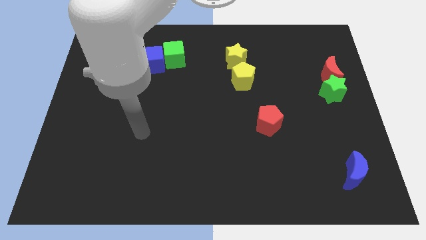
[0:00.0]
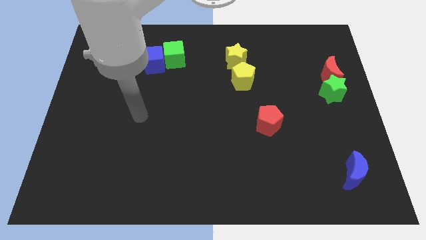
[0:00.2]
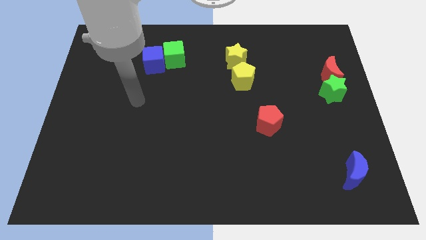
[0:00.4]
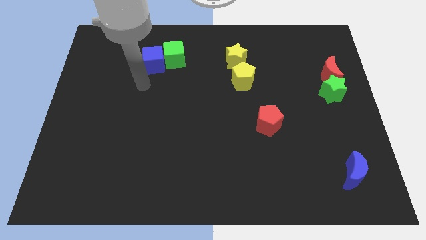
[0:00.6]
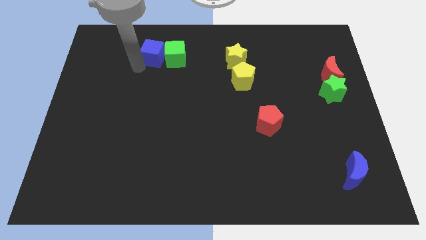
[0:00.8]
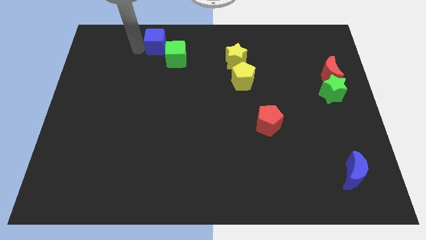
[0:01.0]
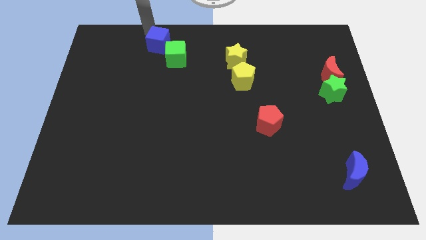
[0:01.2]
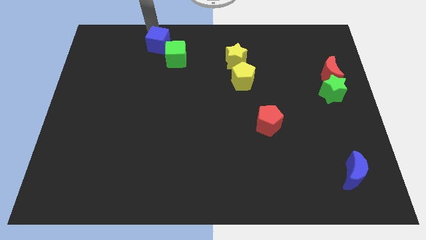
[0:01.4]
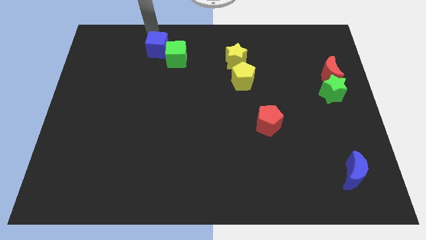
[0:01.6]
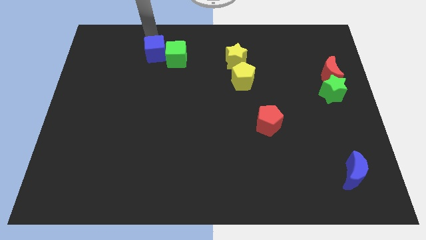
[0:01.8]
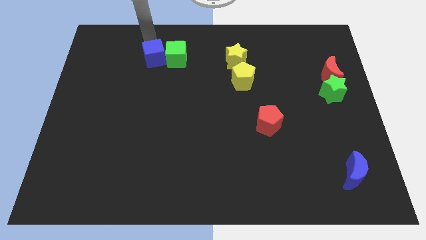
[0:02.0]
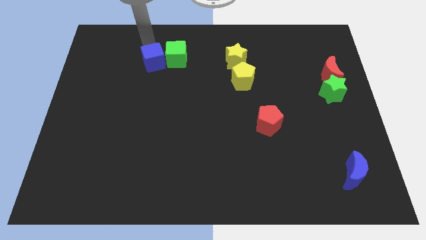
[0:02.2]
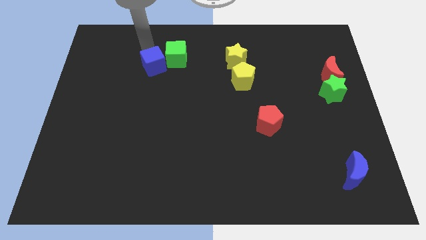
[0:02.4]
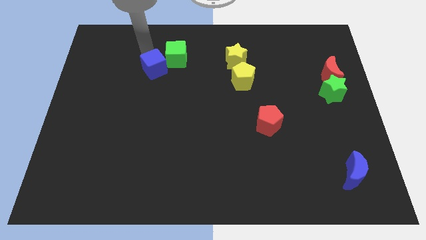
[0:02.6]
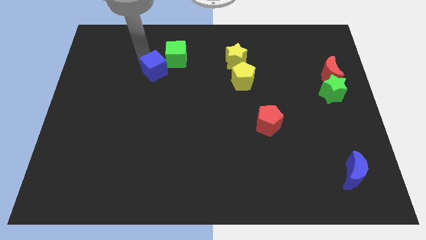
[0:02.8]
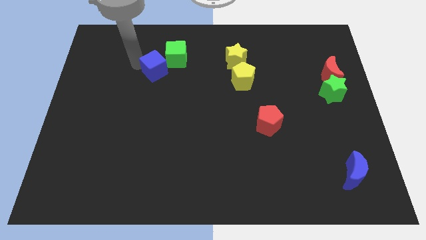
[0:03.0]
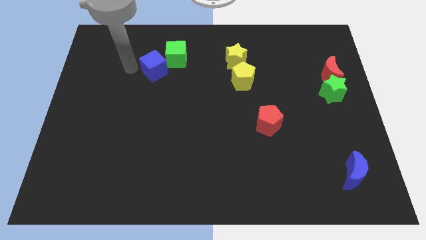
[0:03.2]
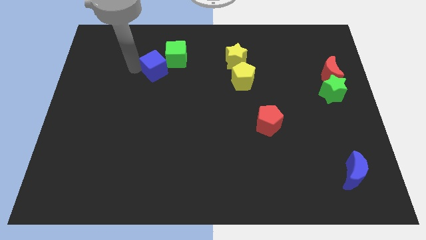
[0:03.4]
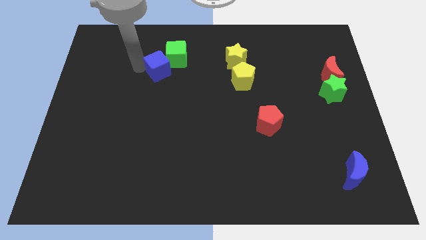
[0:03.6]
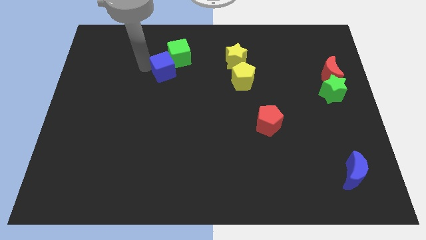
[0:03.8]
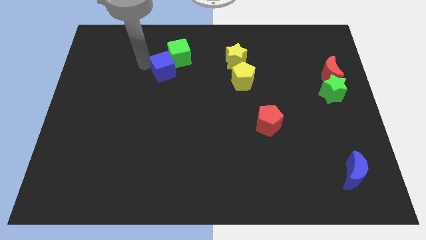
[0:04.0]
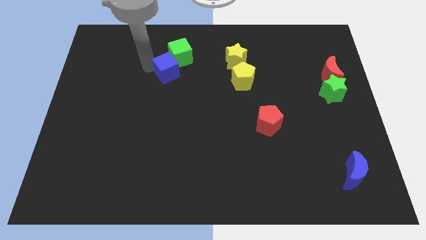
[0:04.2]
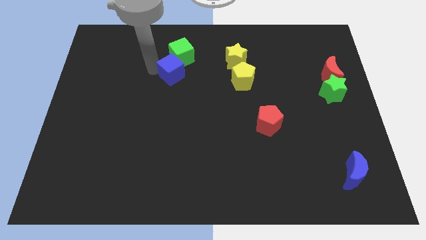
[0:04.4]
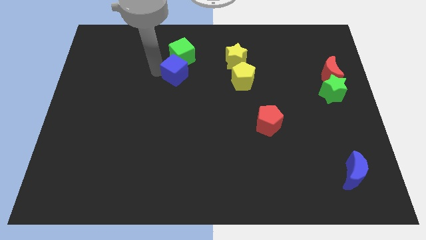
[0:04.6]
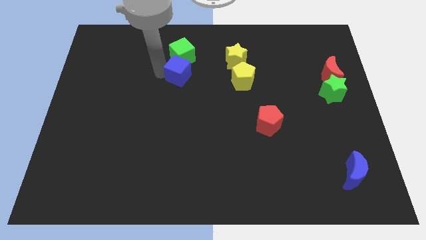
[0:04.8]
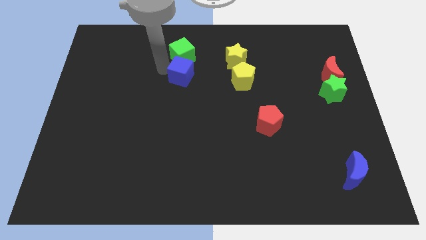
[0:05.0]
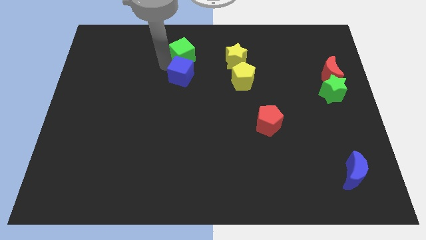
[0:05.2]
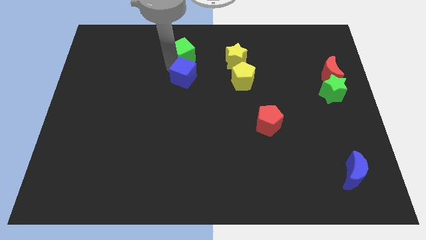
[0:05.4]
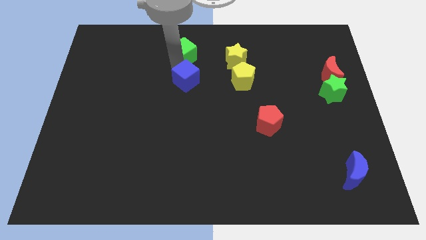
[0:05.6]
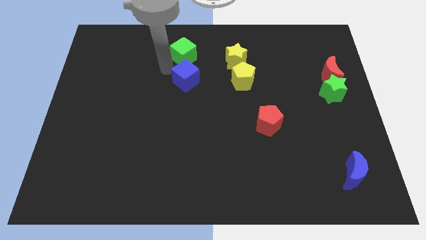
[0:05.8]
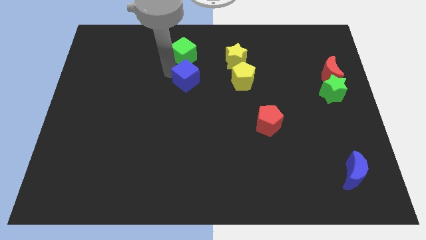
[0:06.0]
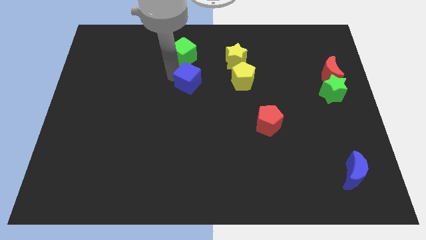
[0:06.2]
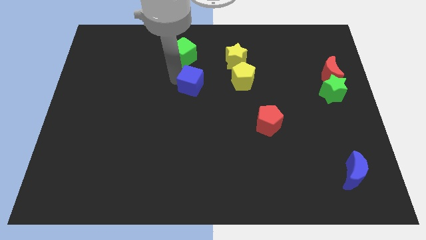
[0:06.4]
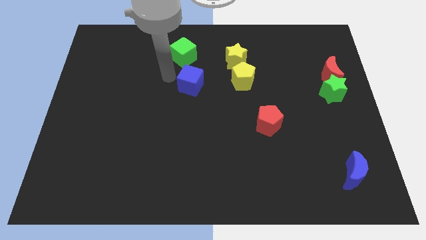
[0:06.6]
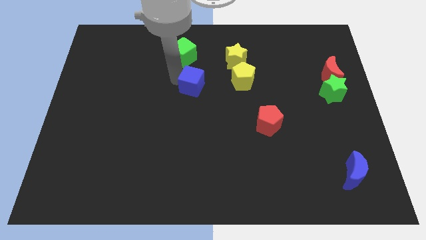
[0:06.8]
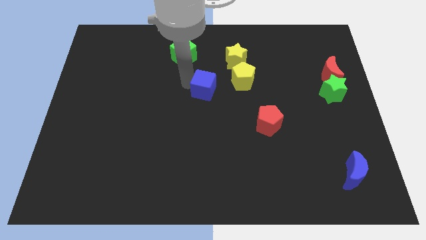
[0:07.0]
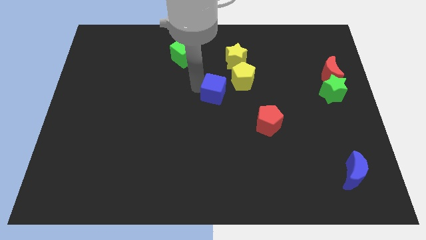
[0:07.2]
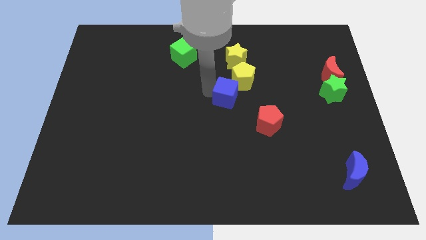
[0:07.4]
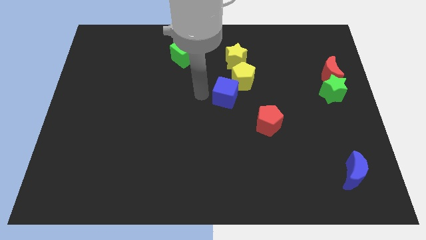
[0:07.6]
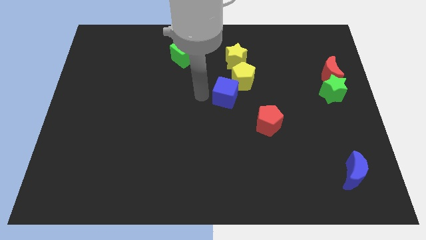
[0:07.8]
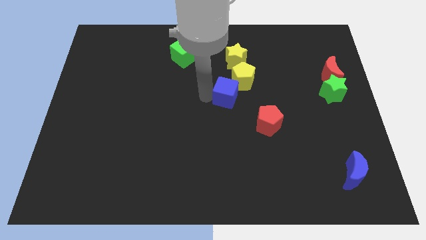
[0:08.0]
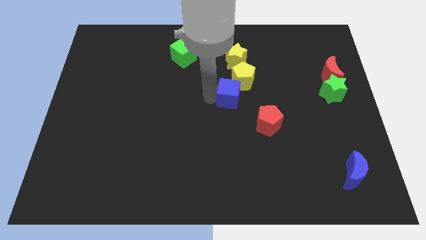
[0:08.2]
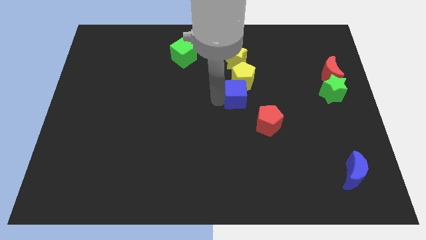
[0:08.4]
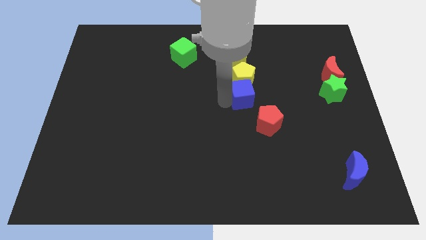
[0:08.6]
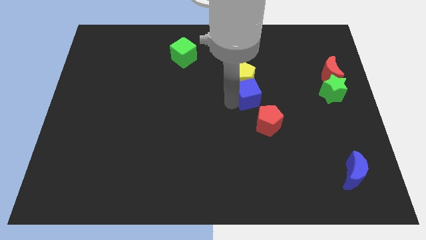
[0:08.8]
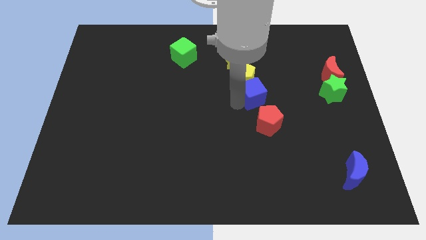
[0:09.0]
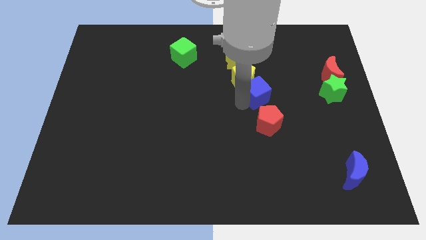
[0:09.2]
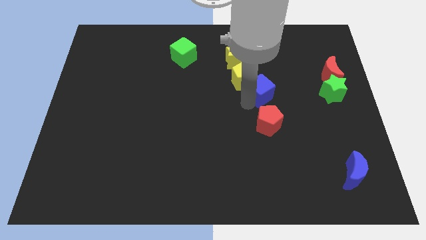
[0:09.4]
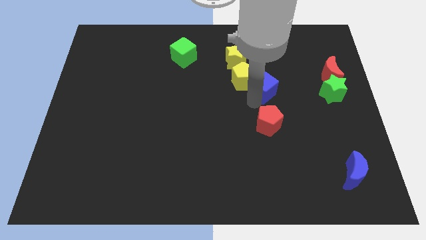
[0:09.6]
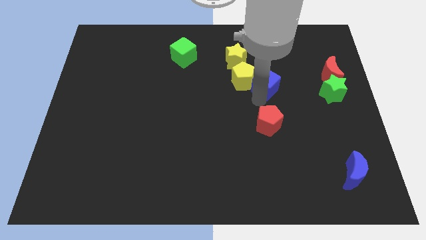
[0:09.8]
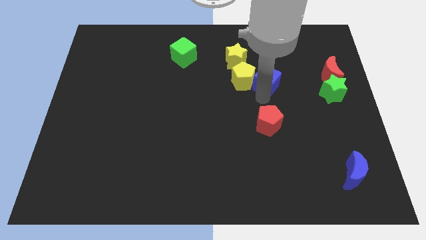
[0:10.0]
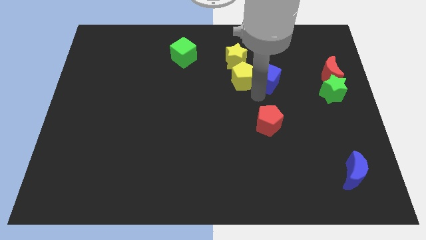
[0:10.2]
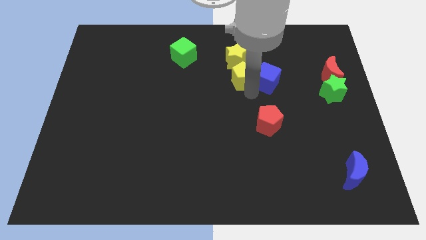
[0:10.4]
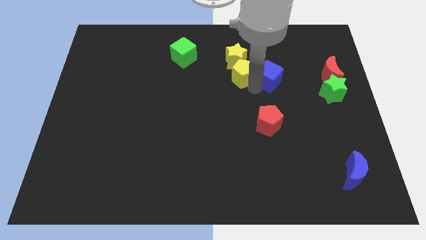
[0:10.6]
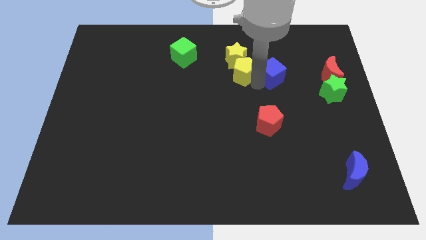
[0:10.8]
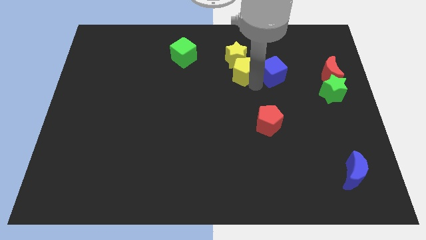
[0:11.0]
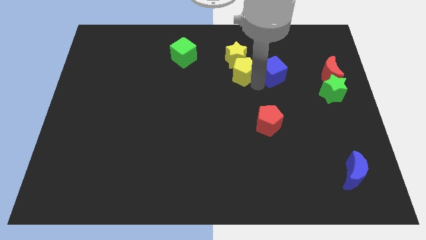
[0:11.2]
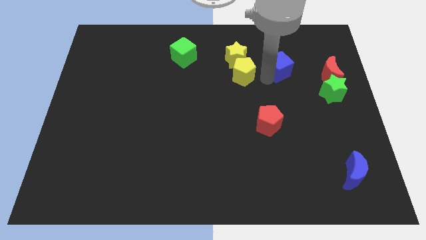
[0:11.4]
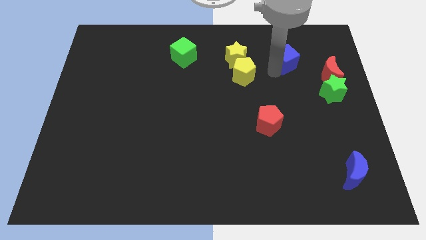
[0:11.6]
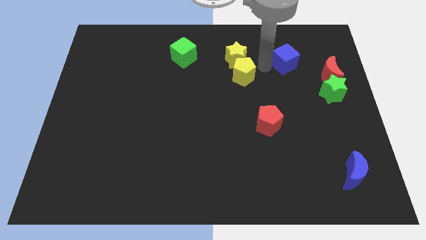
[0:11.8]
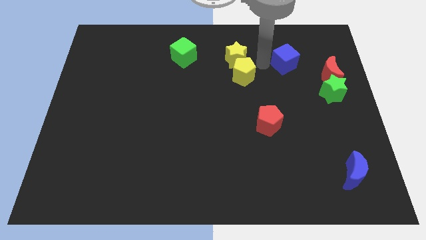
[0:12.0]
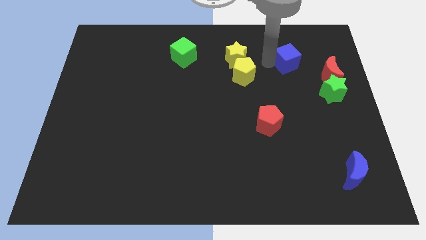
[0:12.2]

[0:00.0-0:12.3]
push the blue cube diagonally up and to the left of the red moon

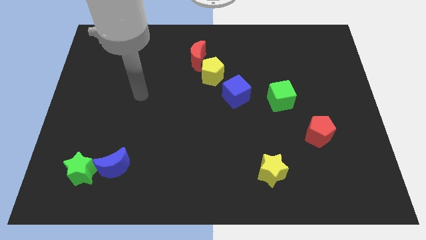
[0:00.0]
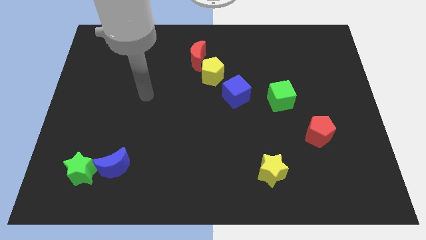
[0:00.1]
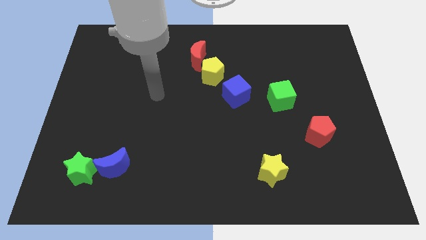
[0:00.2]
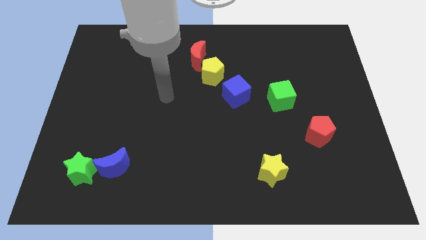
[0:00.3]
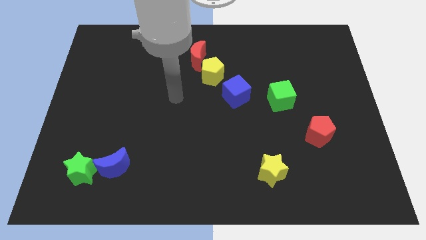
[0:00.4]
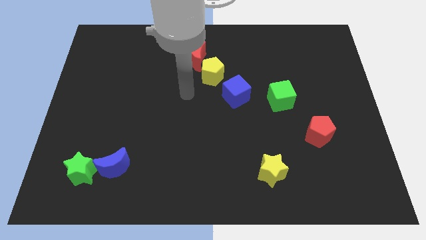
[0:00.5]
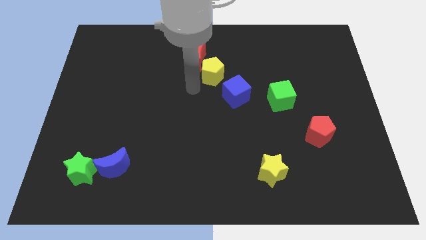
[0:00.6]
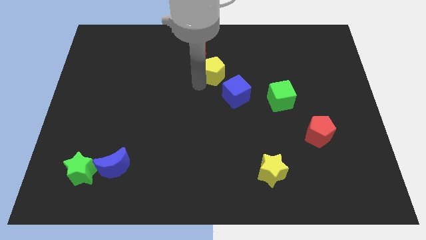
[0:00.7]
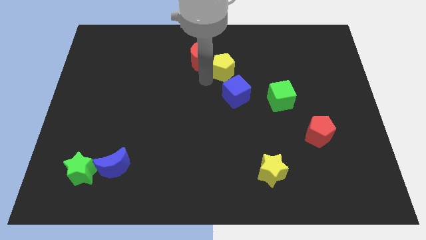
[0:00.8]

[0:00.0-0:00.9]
put the yellow pentagon right of the red moon
